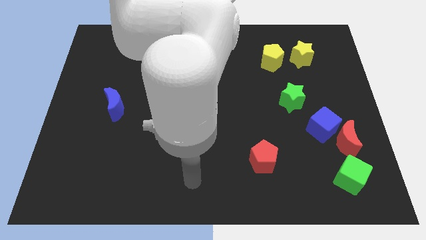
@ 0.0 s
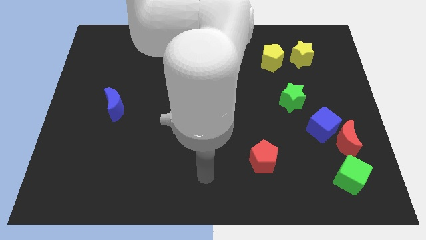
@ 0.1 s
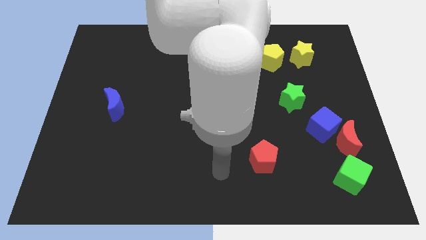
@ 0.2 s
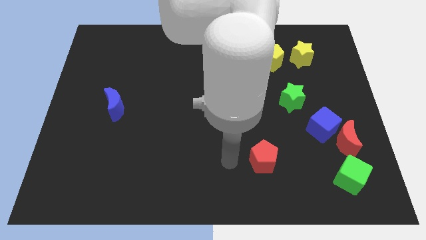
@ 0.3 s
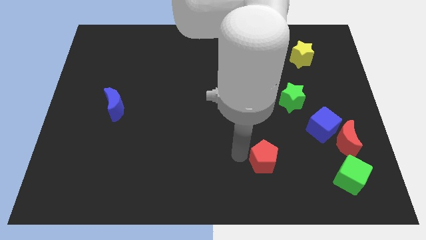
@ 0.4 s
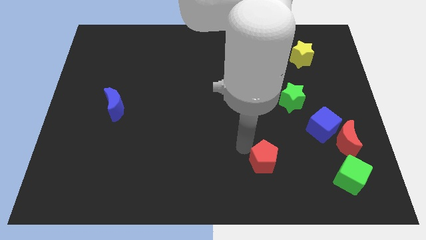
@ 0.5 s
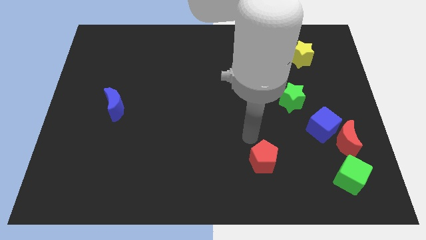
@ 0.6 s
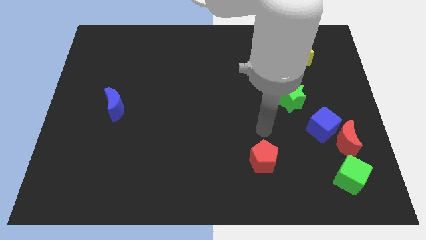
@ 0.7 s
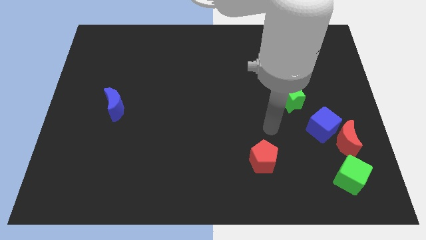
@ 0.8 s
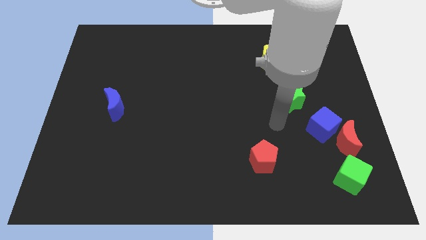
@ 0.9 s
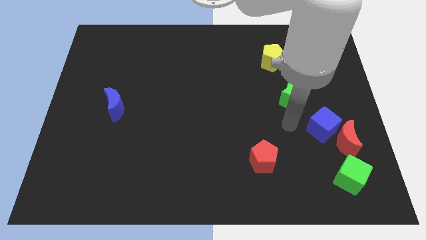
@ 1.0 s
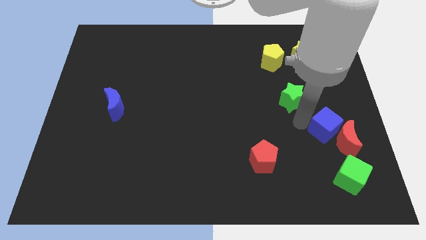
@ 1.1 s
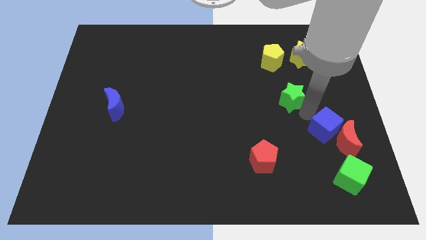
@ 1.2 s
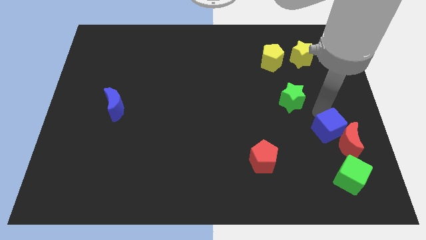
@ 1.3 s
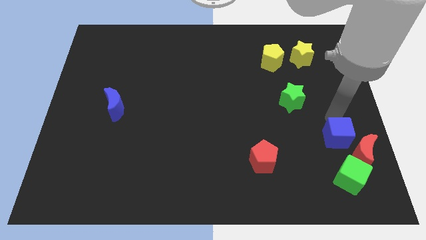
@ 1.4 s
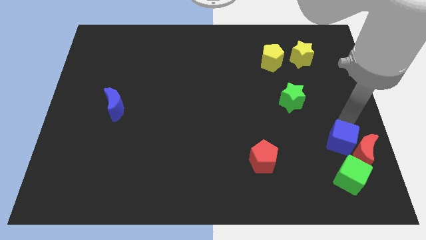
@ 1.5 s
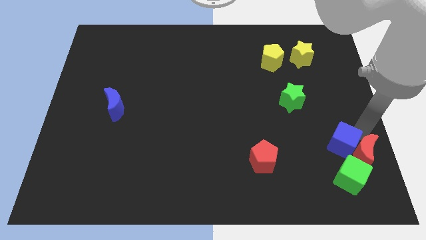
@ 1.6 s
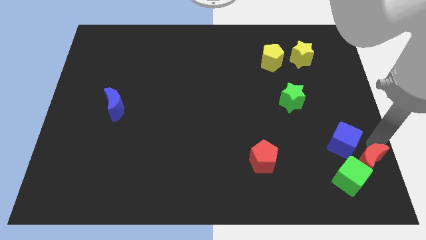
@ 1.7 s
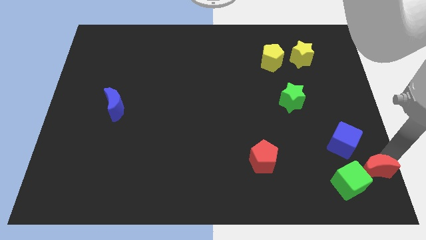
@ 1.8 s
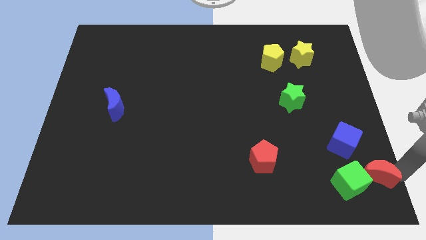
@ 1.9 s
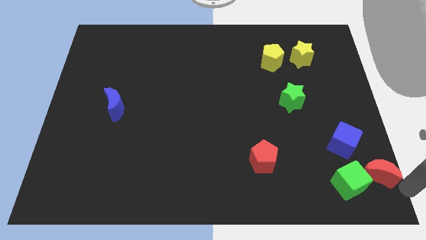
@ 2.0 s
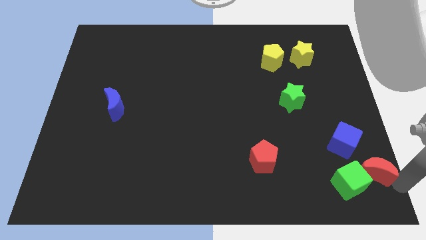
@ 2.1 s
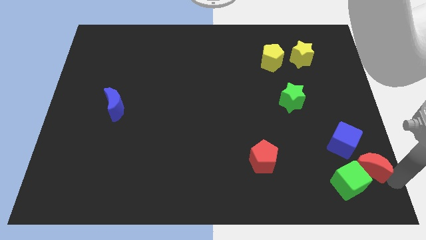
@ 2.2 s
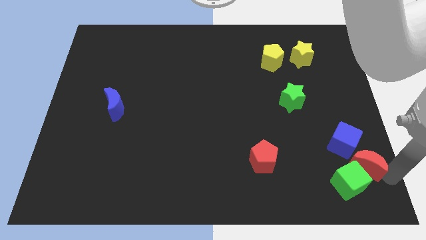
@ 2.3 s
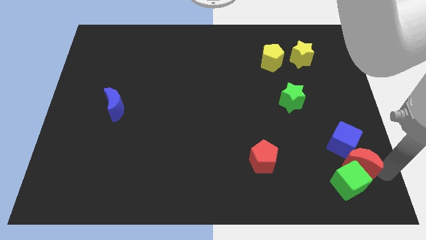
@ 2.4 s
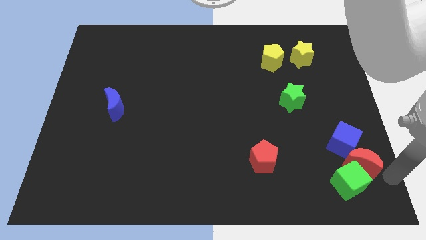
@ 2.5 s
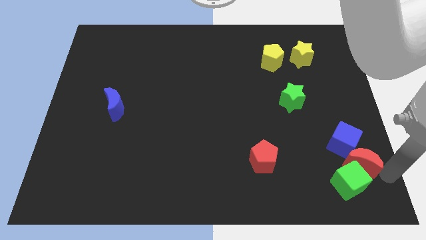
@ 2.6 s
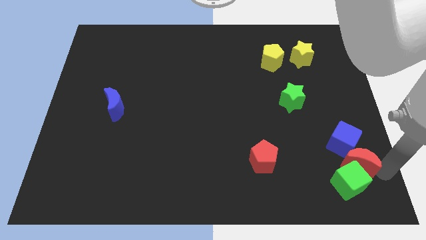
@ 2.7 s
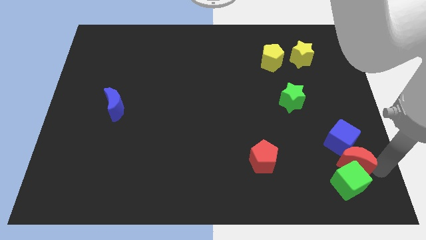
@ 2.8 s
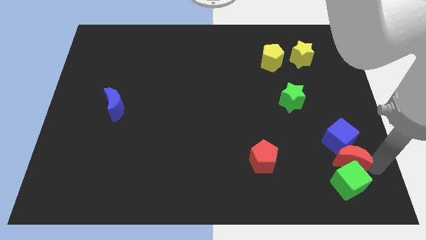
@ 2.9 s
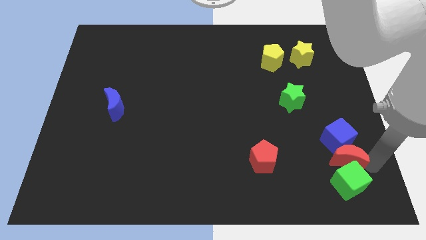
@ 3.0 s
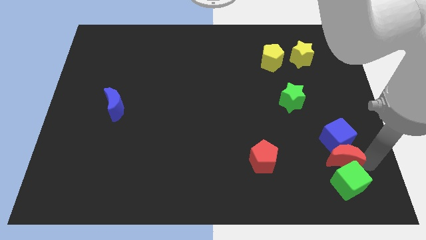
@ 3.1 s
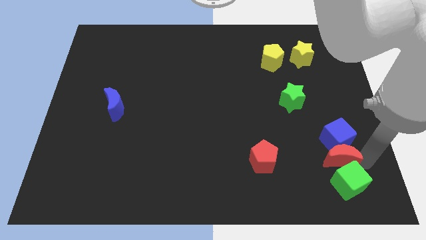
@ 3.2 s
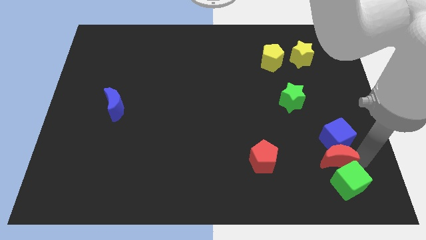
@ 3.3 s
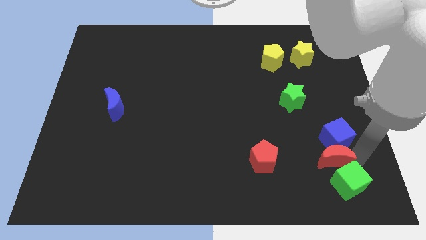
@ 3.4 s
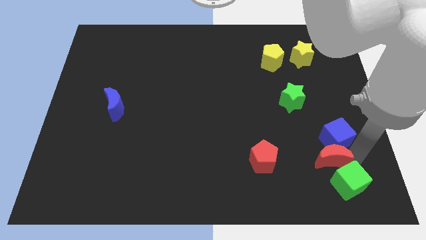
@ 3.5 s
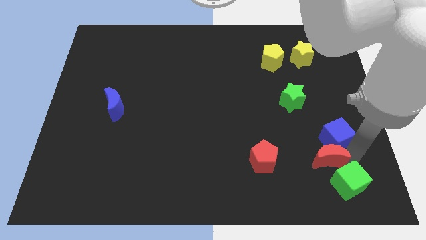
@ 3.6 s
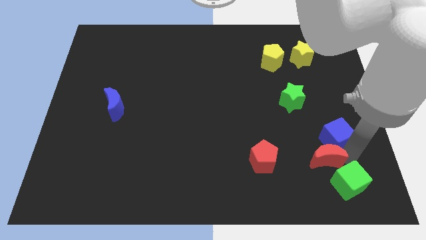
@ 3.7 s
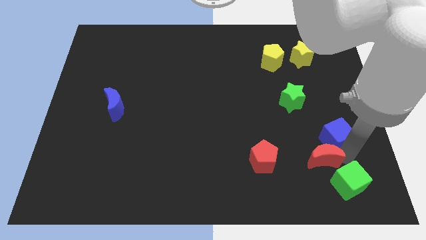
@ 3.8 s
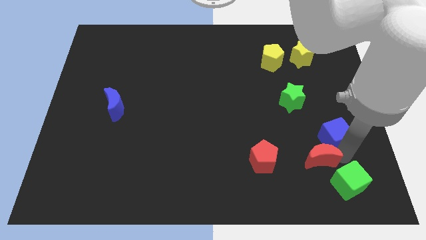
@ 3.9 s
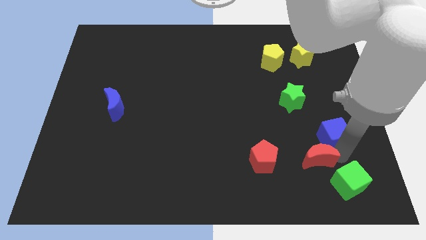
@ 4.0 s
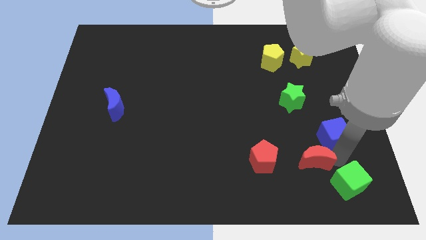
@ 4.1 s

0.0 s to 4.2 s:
slightly move the red moon left

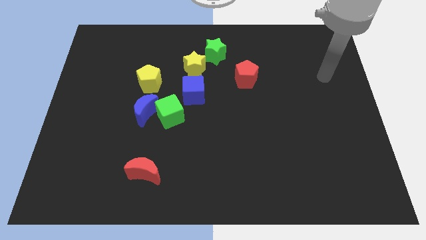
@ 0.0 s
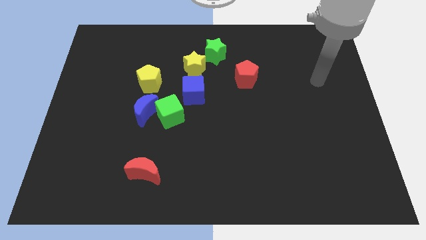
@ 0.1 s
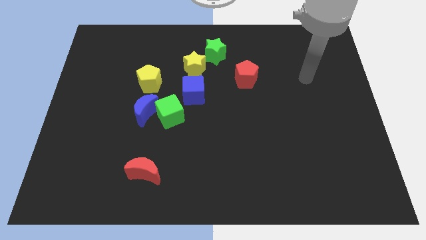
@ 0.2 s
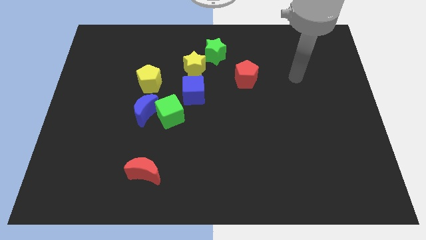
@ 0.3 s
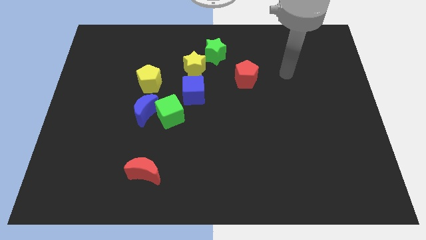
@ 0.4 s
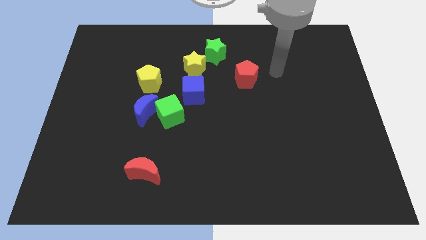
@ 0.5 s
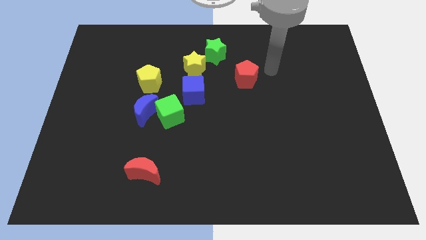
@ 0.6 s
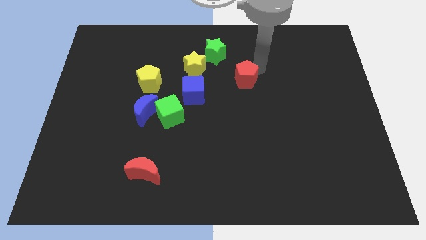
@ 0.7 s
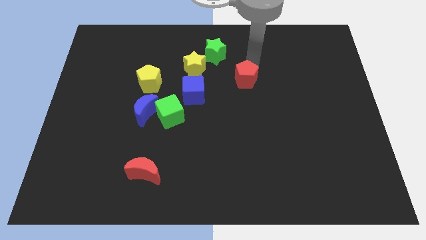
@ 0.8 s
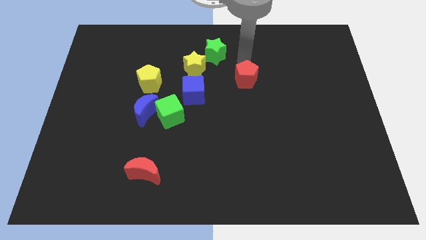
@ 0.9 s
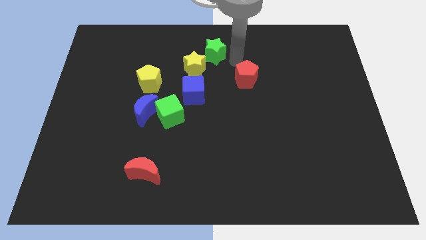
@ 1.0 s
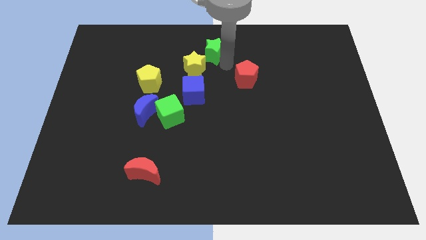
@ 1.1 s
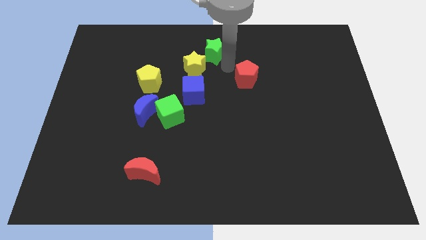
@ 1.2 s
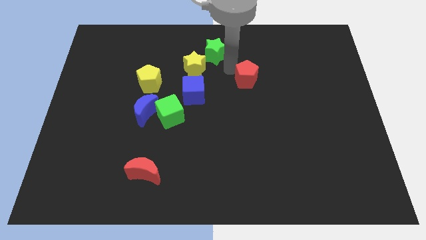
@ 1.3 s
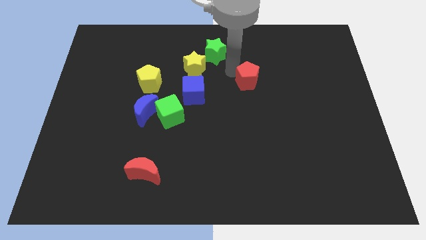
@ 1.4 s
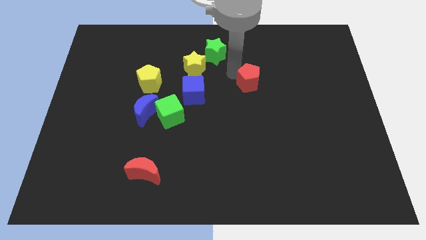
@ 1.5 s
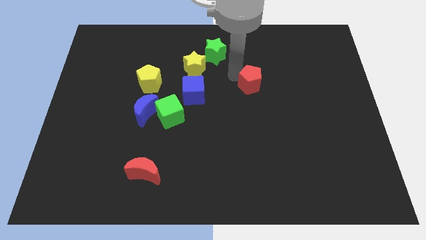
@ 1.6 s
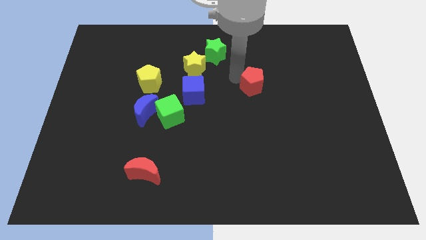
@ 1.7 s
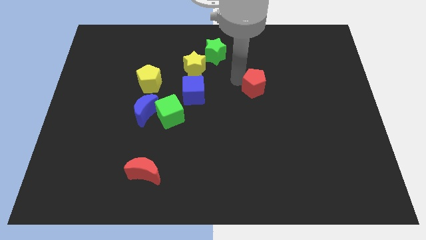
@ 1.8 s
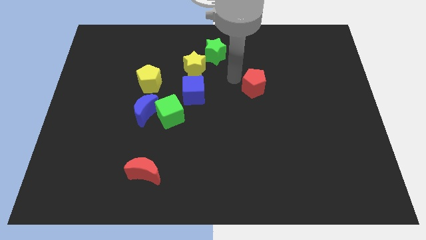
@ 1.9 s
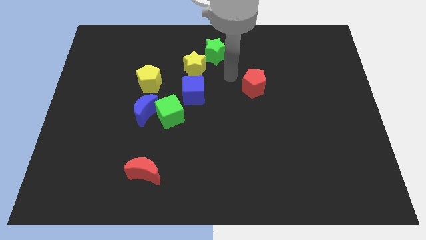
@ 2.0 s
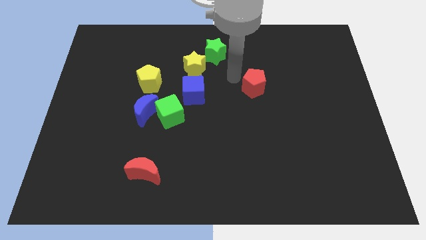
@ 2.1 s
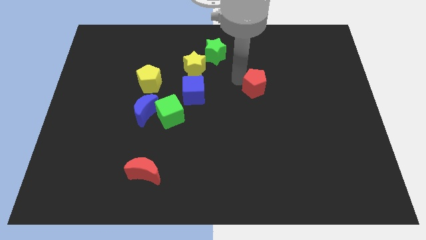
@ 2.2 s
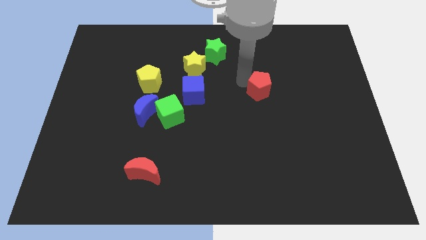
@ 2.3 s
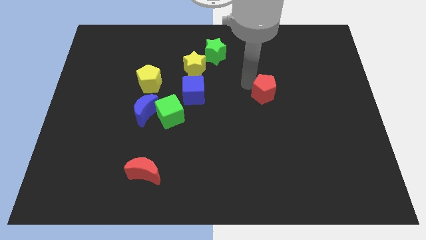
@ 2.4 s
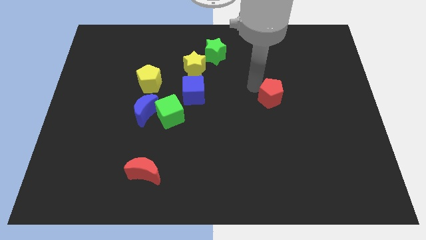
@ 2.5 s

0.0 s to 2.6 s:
slightly move the red pentagon down and then to the right

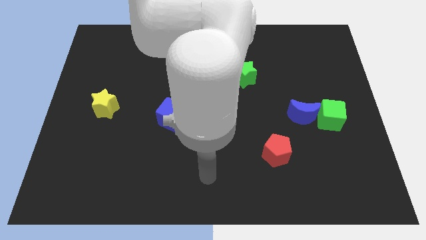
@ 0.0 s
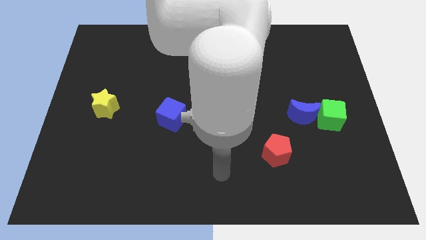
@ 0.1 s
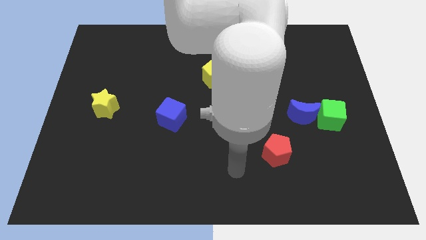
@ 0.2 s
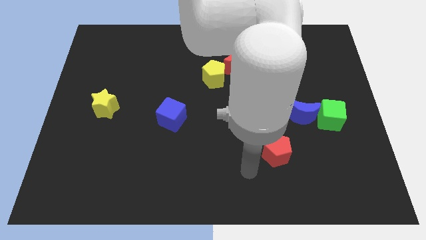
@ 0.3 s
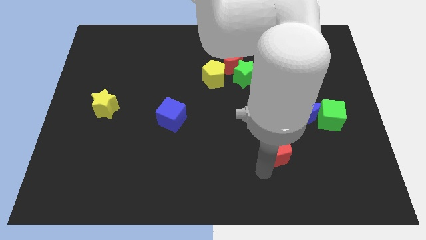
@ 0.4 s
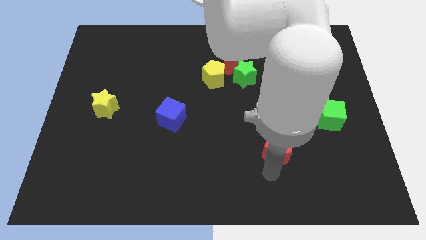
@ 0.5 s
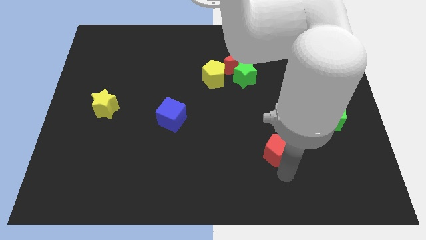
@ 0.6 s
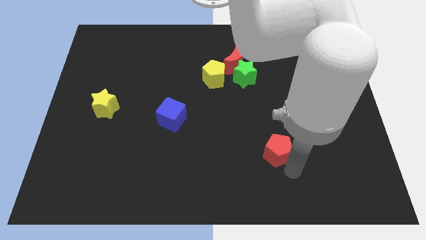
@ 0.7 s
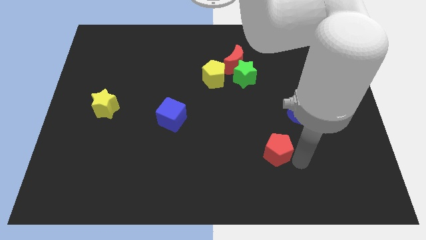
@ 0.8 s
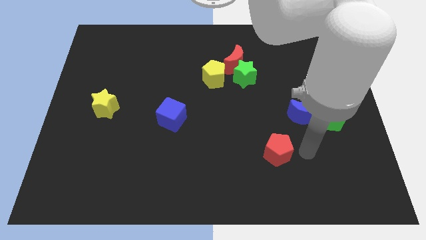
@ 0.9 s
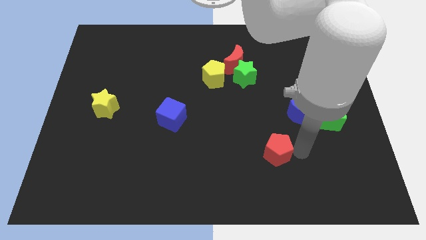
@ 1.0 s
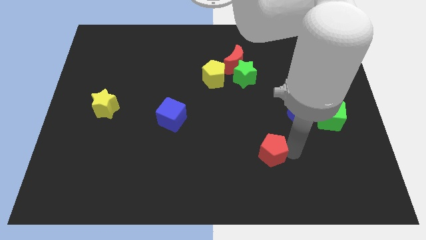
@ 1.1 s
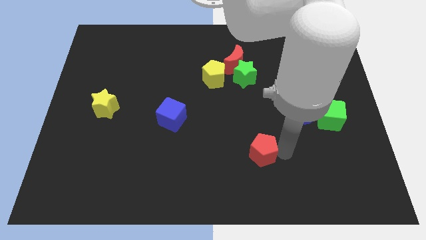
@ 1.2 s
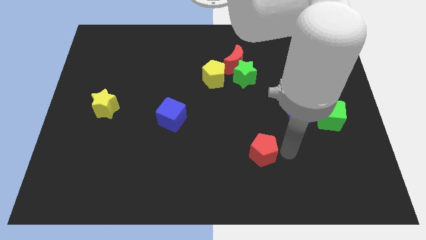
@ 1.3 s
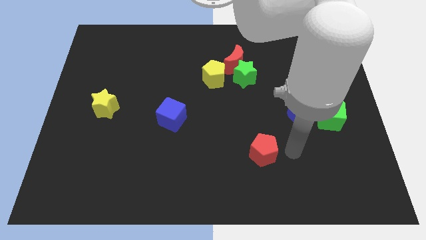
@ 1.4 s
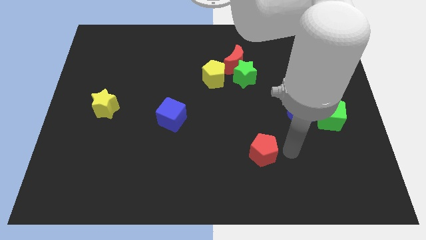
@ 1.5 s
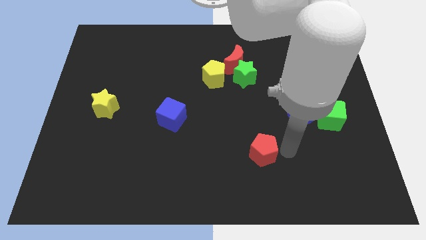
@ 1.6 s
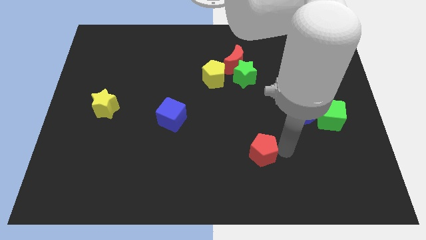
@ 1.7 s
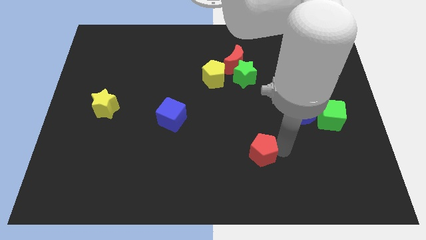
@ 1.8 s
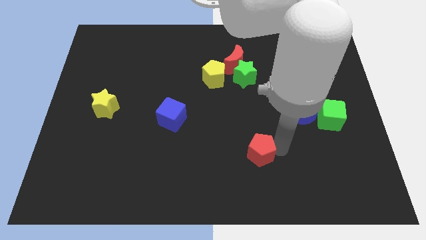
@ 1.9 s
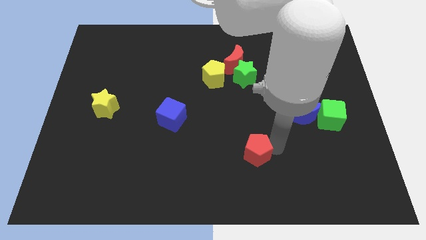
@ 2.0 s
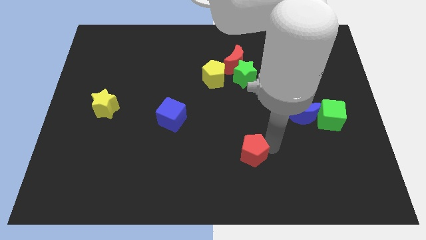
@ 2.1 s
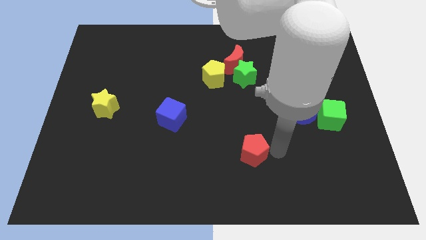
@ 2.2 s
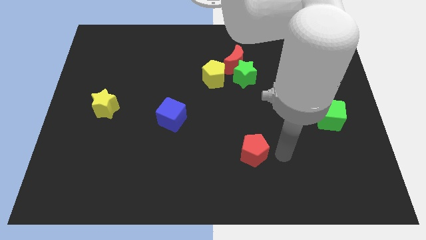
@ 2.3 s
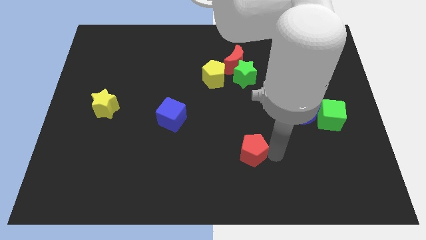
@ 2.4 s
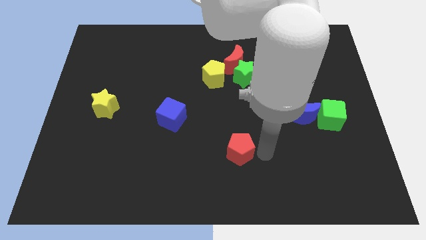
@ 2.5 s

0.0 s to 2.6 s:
move the red pentagon slightly left
